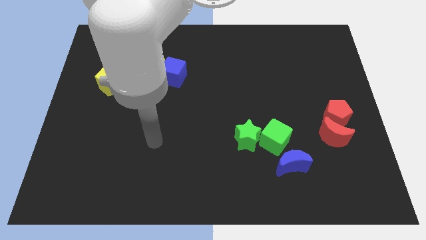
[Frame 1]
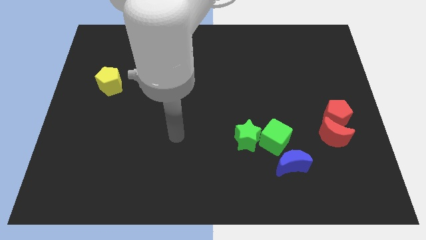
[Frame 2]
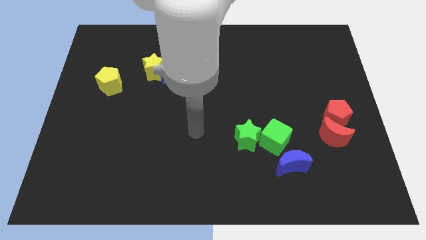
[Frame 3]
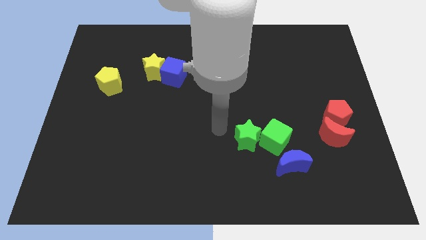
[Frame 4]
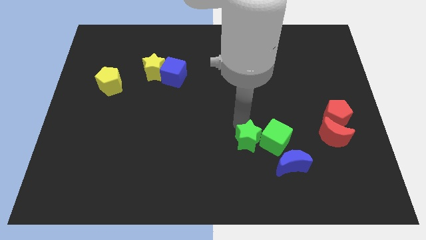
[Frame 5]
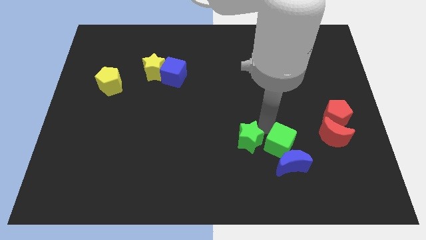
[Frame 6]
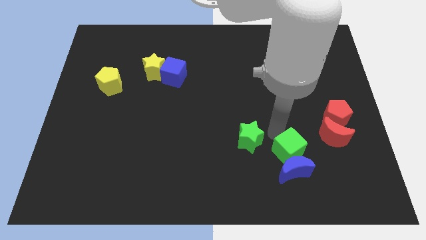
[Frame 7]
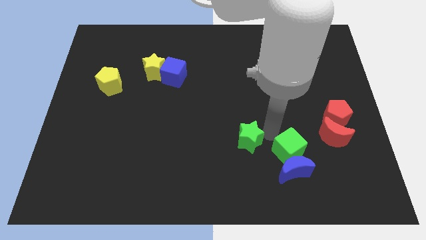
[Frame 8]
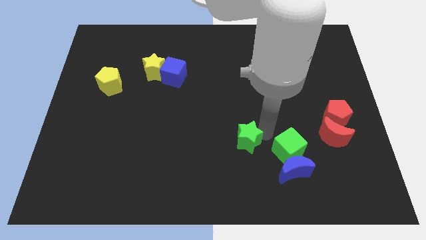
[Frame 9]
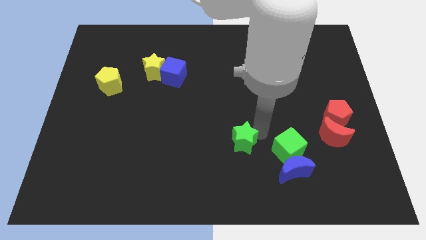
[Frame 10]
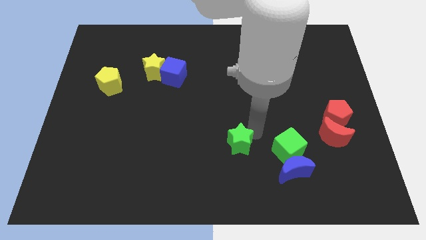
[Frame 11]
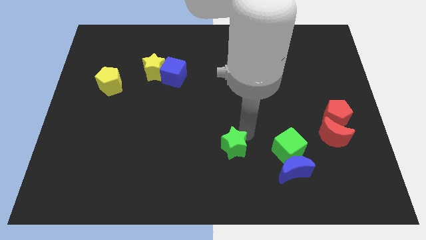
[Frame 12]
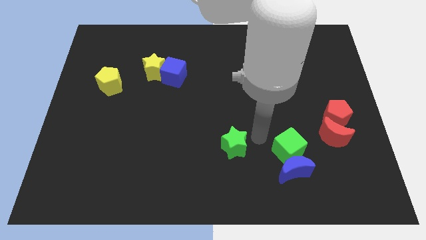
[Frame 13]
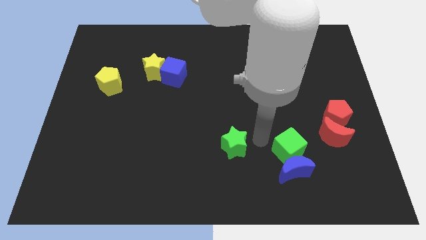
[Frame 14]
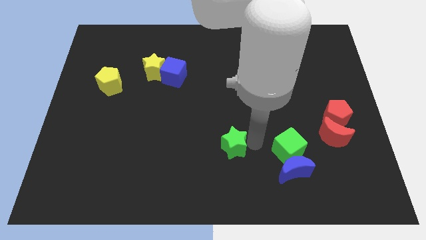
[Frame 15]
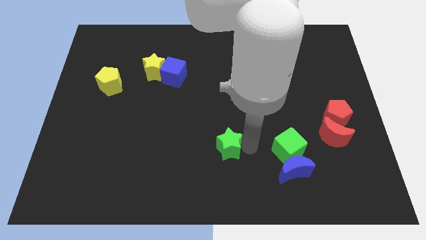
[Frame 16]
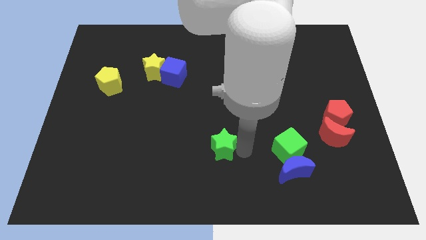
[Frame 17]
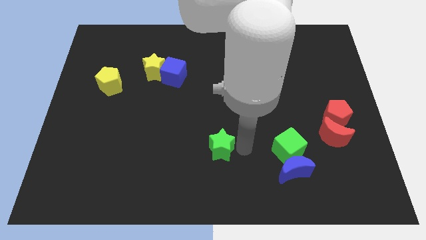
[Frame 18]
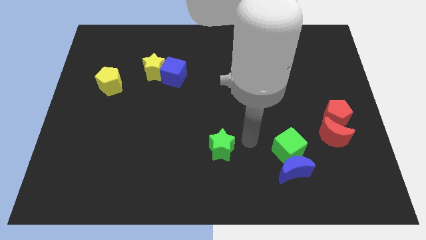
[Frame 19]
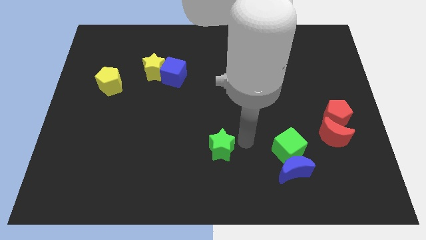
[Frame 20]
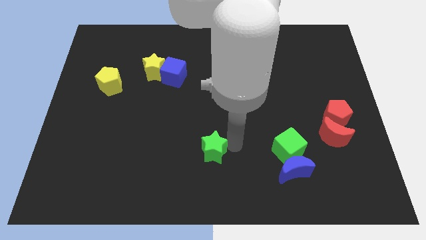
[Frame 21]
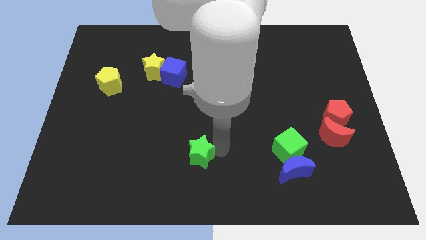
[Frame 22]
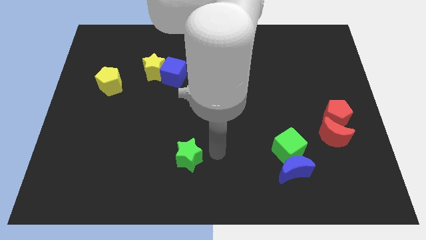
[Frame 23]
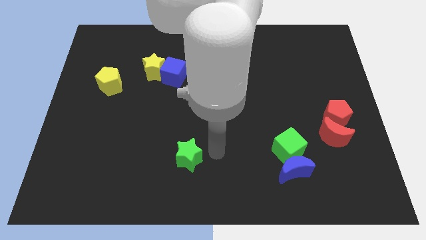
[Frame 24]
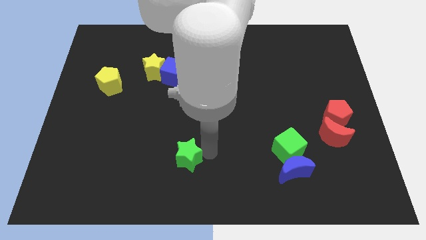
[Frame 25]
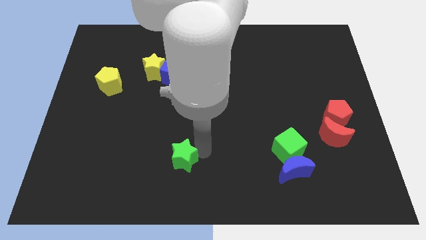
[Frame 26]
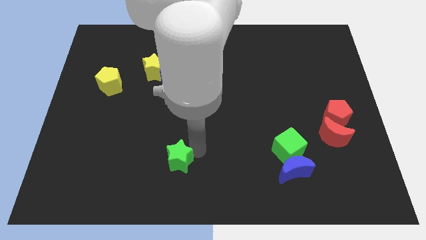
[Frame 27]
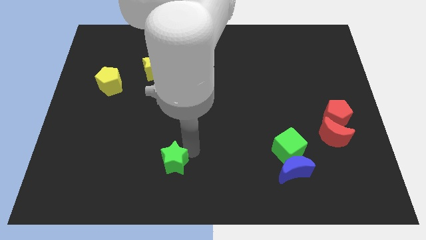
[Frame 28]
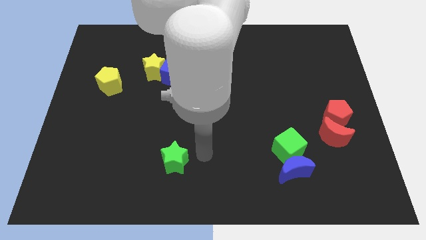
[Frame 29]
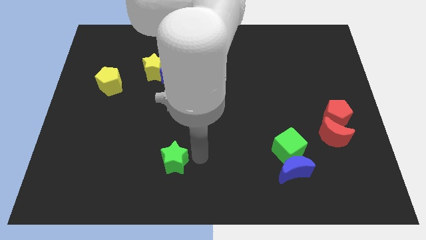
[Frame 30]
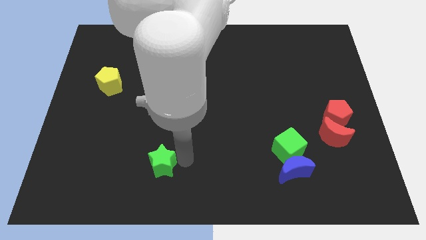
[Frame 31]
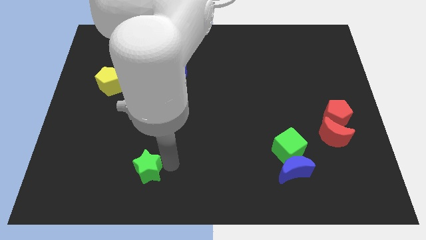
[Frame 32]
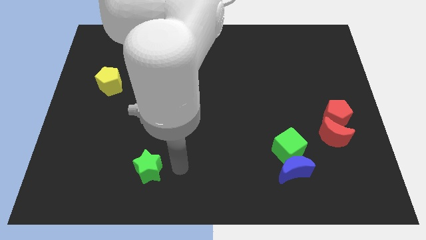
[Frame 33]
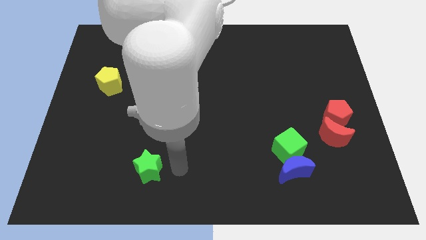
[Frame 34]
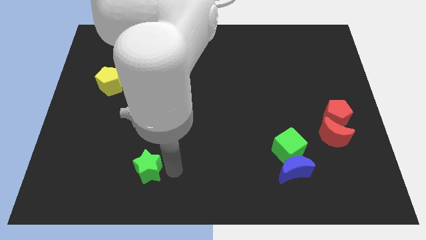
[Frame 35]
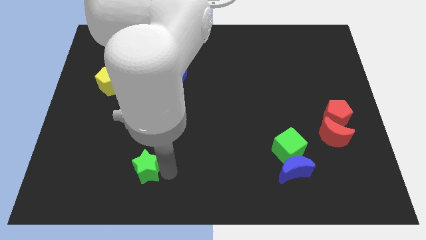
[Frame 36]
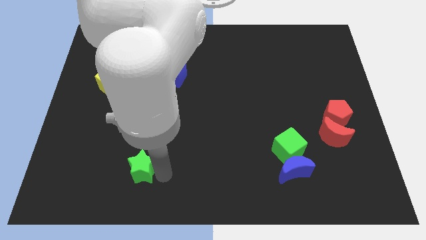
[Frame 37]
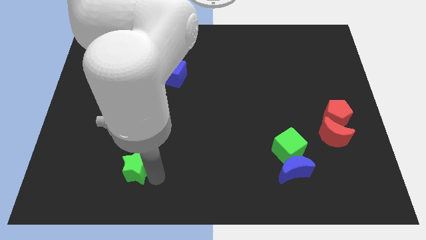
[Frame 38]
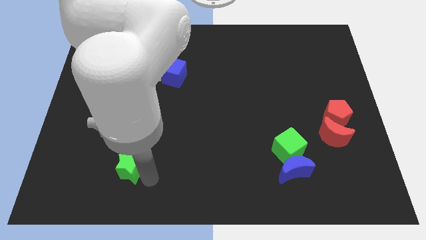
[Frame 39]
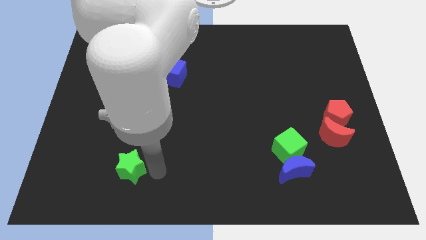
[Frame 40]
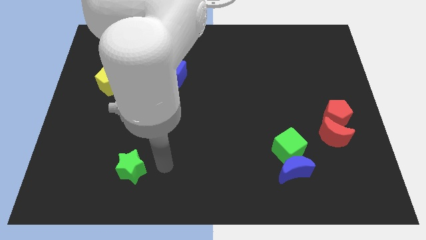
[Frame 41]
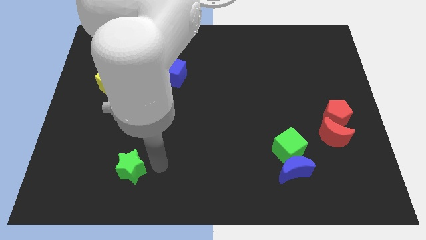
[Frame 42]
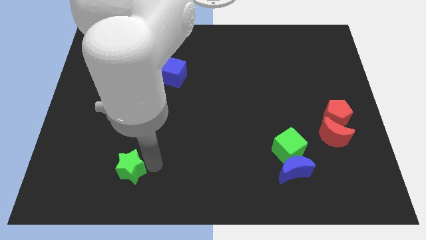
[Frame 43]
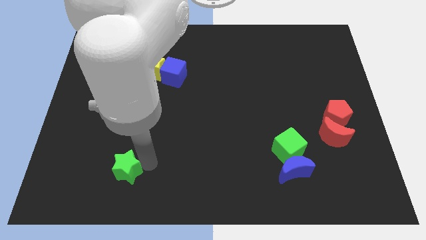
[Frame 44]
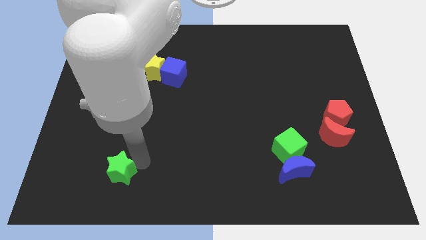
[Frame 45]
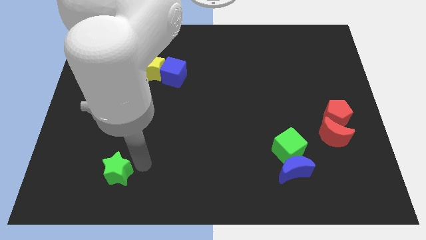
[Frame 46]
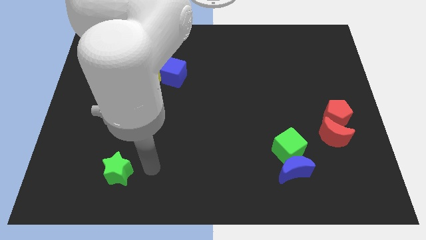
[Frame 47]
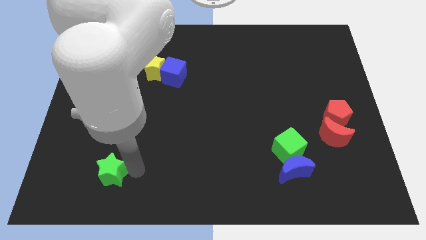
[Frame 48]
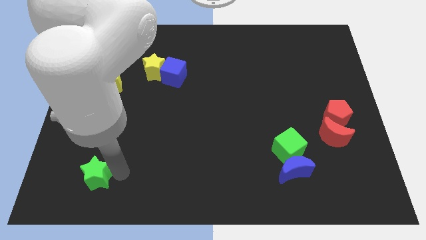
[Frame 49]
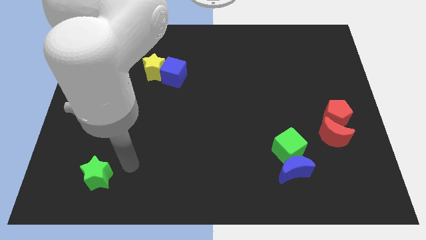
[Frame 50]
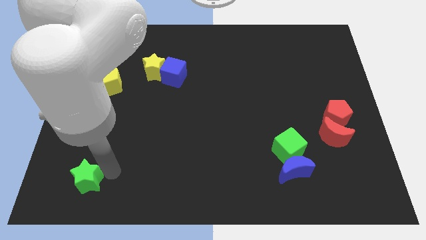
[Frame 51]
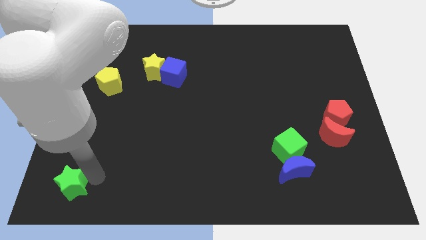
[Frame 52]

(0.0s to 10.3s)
push the green star to the bottom left of the board

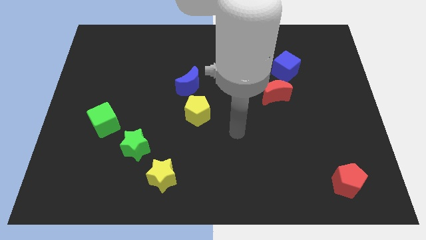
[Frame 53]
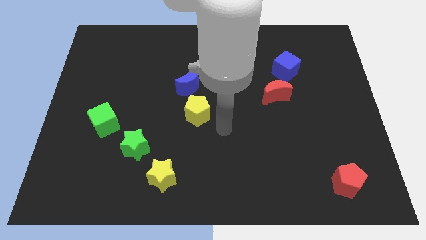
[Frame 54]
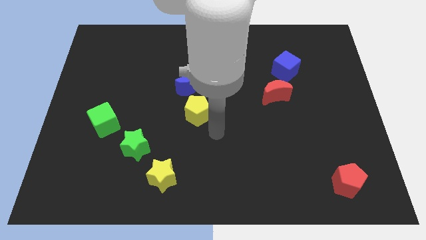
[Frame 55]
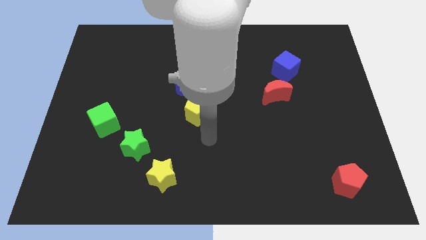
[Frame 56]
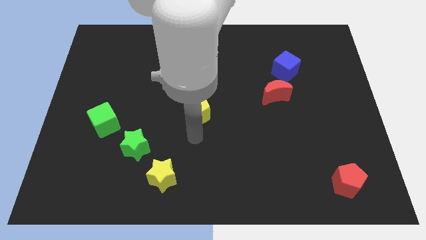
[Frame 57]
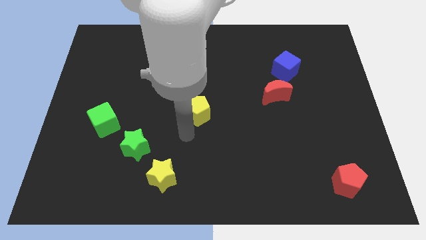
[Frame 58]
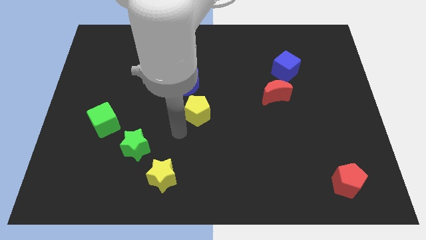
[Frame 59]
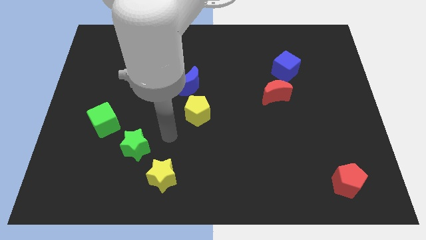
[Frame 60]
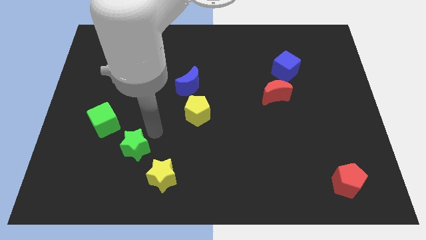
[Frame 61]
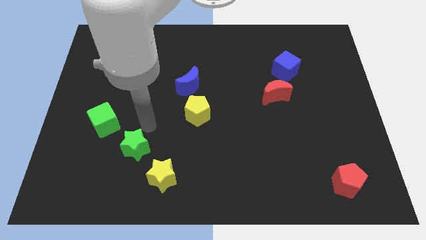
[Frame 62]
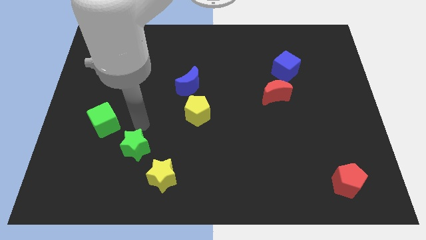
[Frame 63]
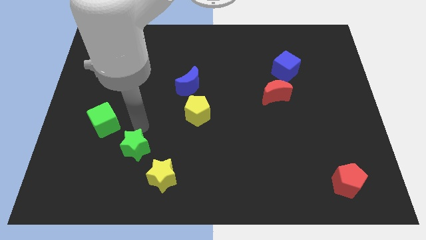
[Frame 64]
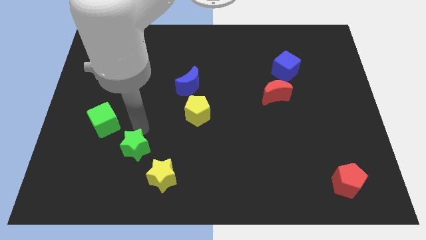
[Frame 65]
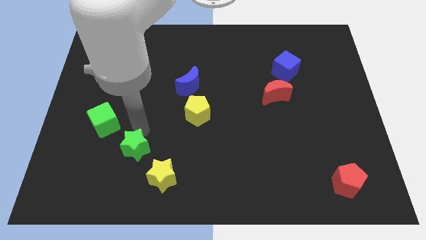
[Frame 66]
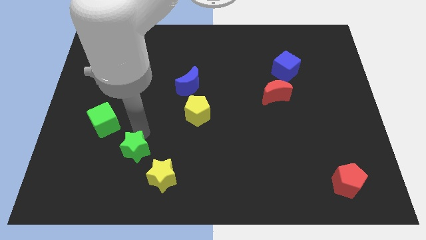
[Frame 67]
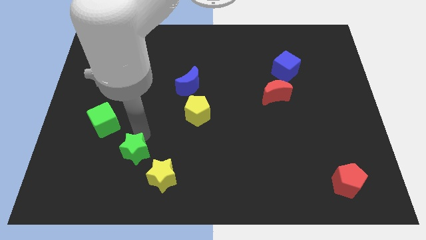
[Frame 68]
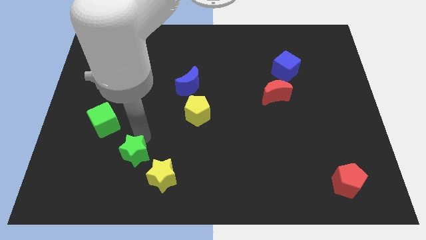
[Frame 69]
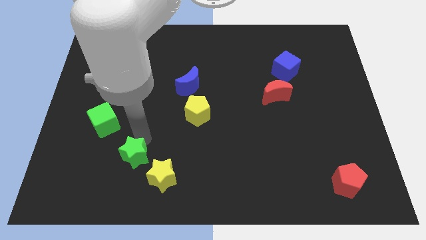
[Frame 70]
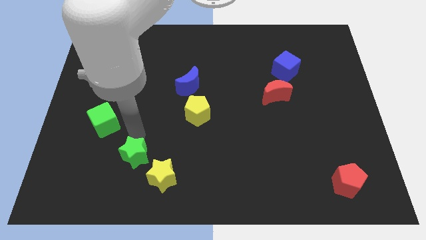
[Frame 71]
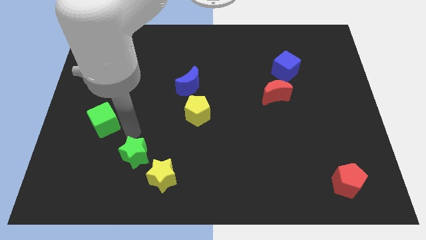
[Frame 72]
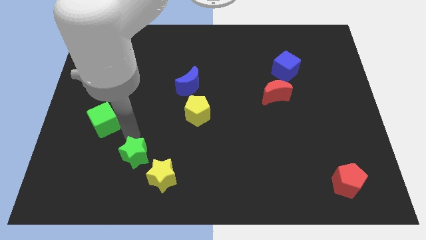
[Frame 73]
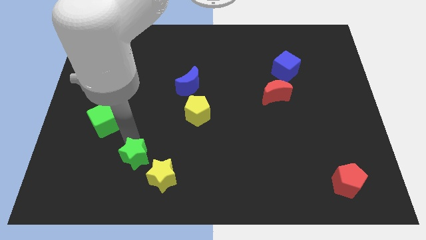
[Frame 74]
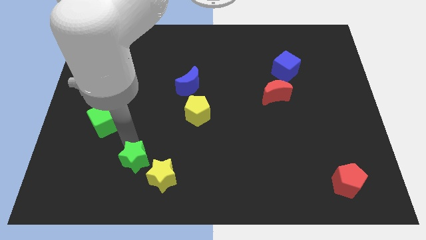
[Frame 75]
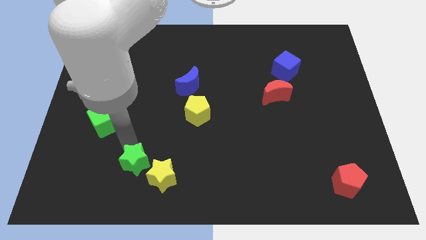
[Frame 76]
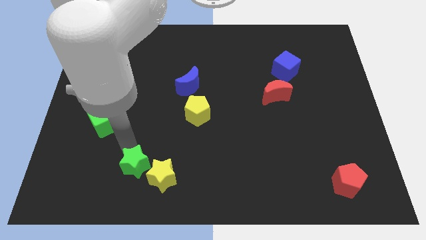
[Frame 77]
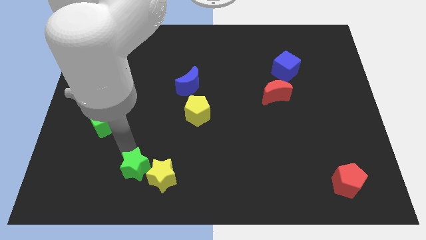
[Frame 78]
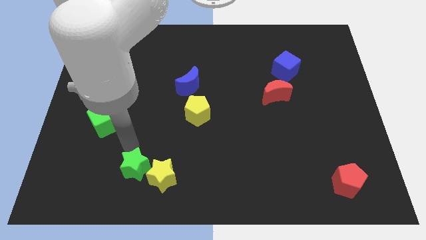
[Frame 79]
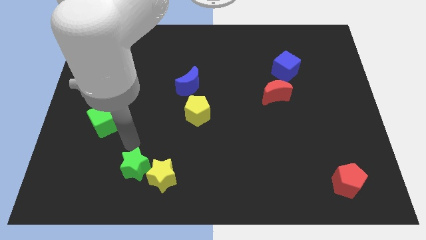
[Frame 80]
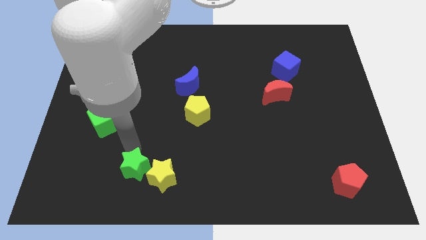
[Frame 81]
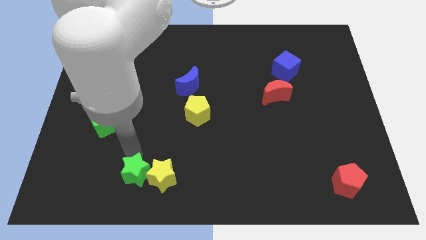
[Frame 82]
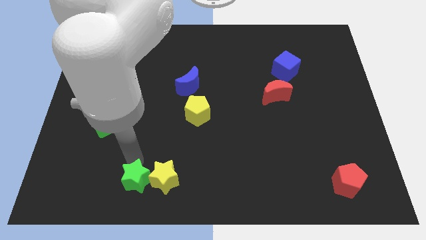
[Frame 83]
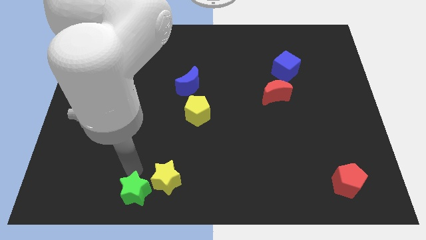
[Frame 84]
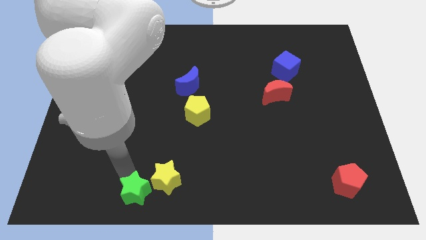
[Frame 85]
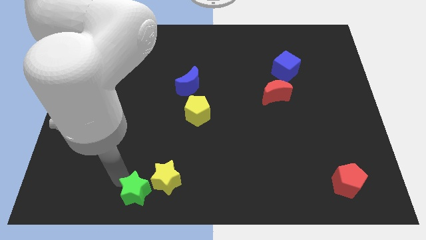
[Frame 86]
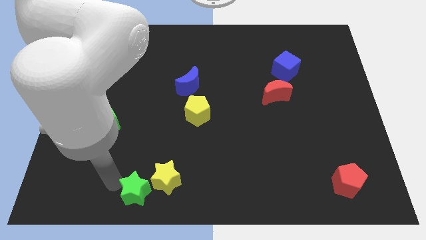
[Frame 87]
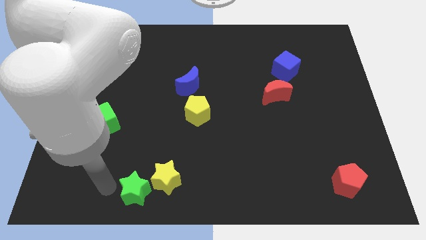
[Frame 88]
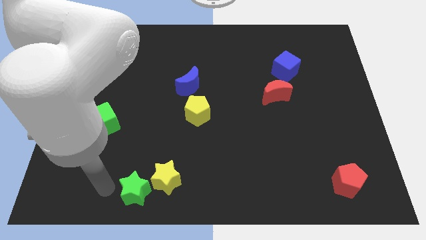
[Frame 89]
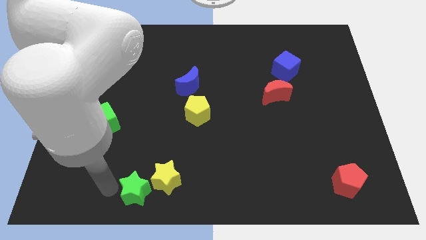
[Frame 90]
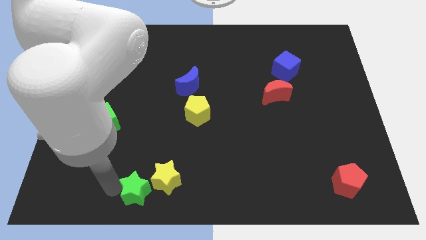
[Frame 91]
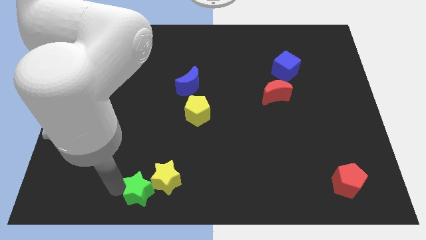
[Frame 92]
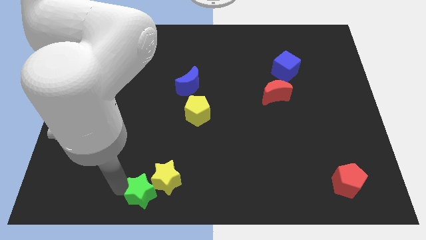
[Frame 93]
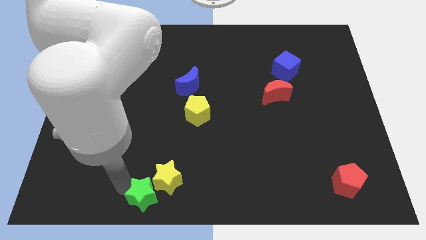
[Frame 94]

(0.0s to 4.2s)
push the green star to the bottom side
